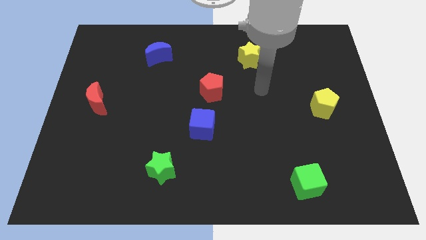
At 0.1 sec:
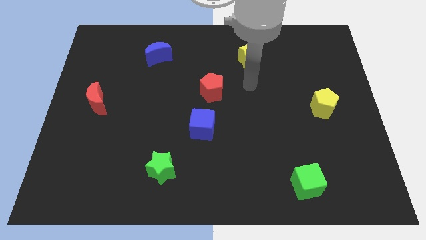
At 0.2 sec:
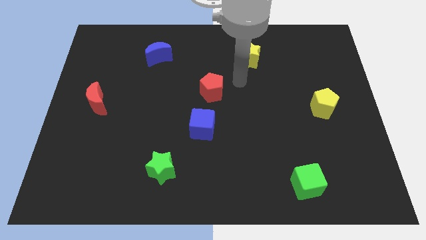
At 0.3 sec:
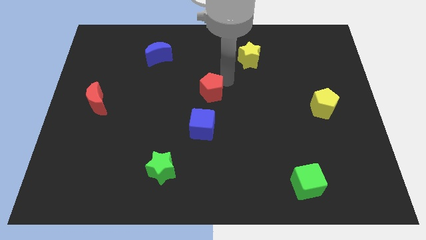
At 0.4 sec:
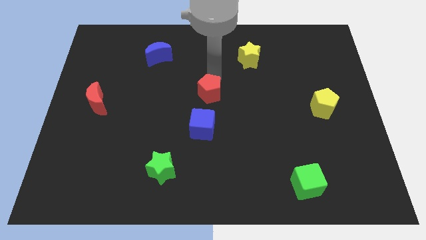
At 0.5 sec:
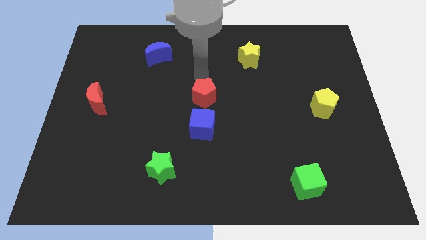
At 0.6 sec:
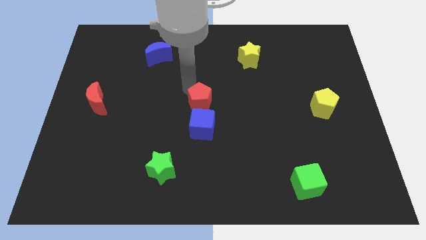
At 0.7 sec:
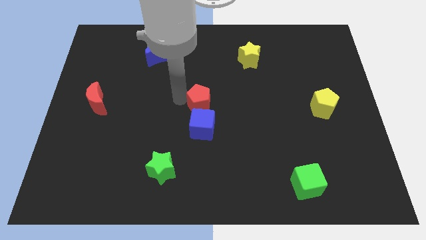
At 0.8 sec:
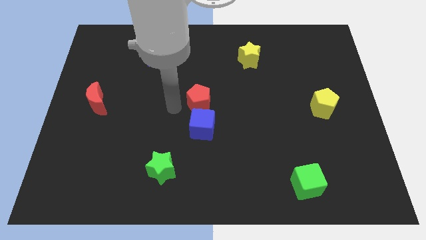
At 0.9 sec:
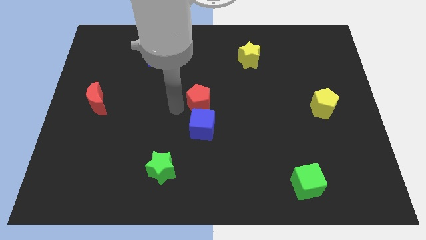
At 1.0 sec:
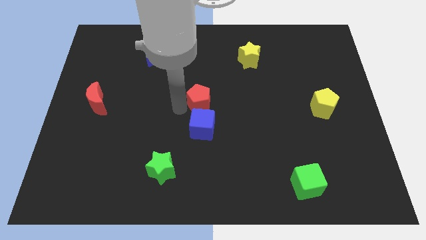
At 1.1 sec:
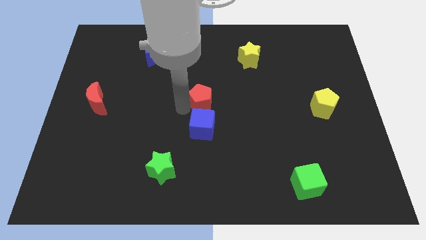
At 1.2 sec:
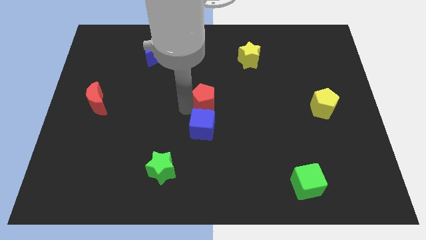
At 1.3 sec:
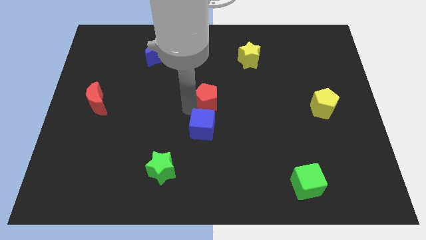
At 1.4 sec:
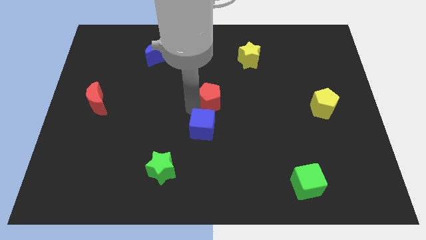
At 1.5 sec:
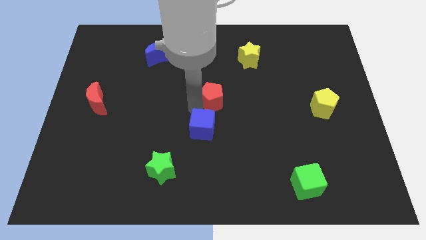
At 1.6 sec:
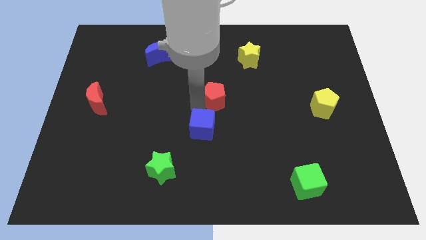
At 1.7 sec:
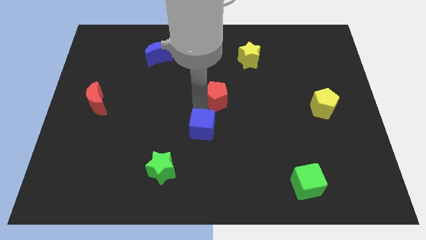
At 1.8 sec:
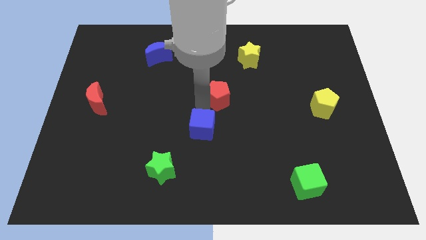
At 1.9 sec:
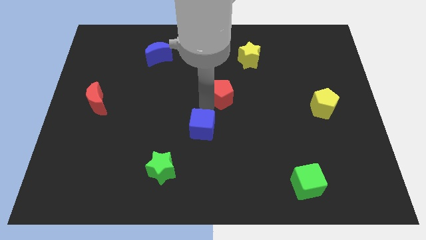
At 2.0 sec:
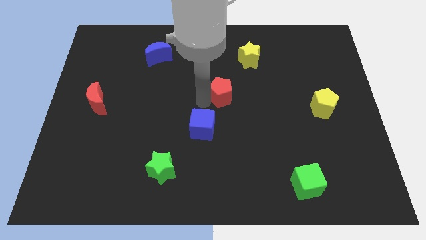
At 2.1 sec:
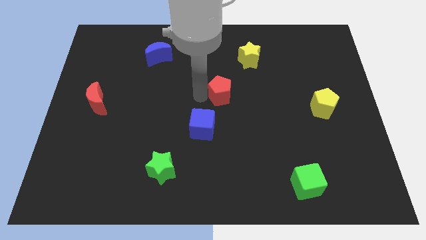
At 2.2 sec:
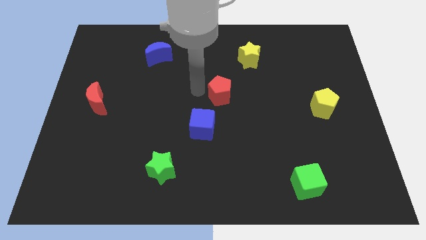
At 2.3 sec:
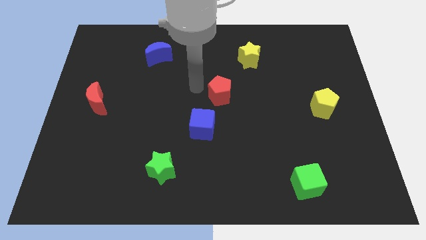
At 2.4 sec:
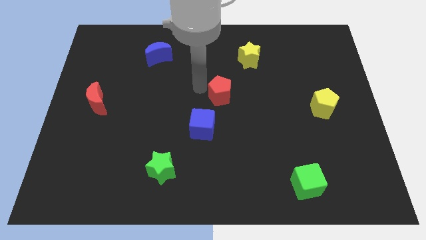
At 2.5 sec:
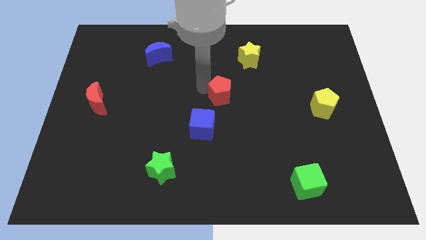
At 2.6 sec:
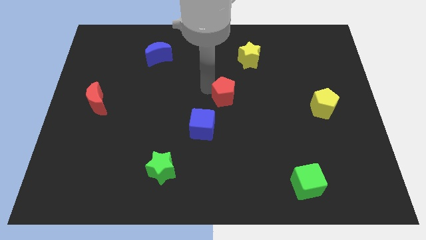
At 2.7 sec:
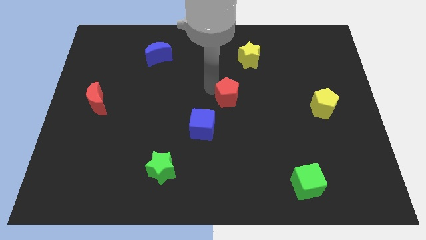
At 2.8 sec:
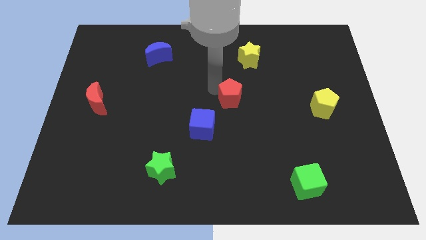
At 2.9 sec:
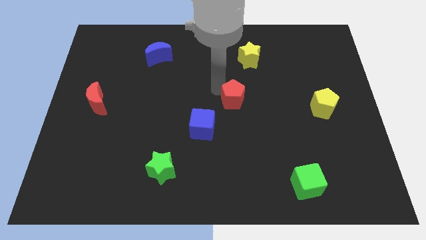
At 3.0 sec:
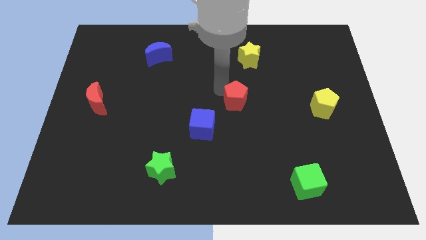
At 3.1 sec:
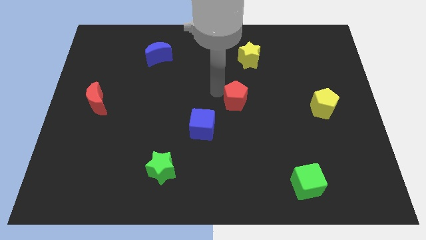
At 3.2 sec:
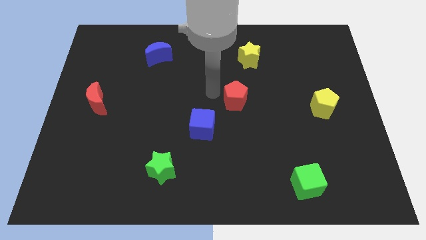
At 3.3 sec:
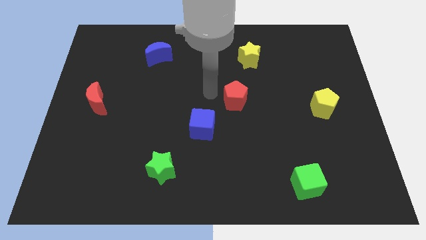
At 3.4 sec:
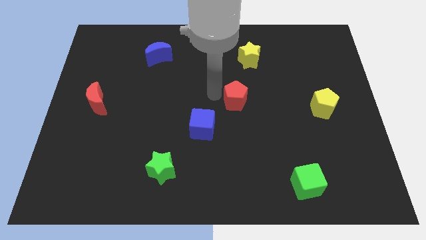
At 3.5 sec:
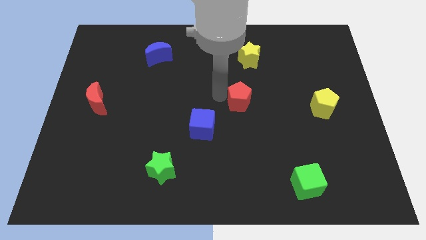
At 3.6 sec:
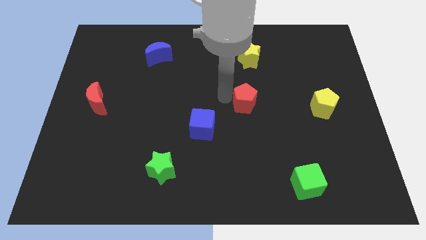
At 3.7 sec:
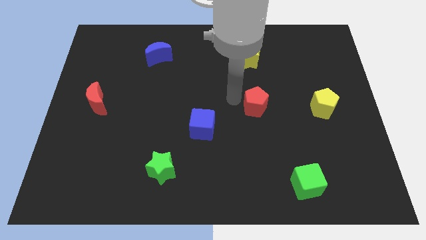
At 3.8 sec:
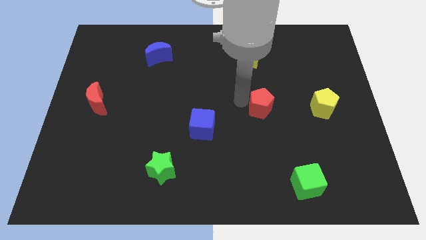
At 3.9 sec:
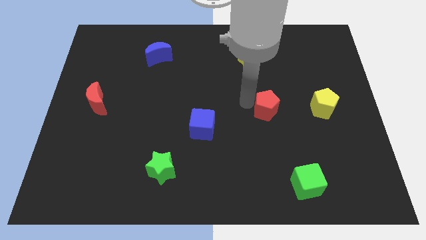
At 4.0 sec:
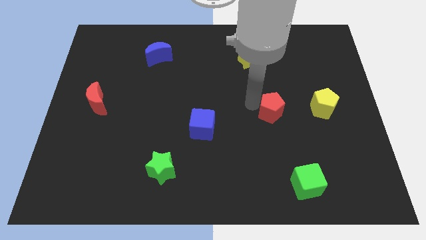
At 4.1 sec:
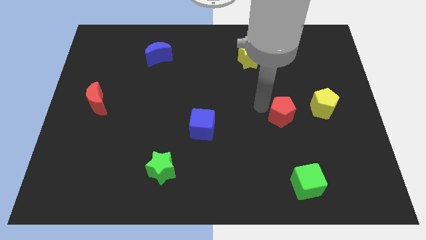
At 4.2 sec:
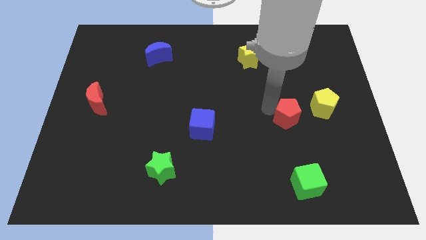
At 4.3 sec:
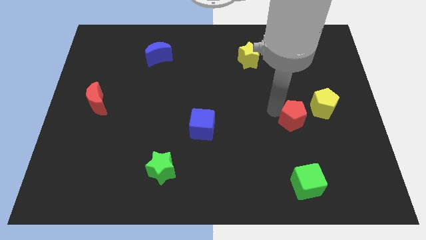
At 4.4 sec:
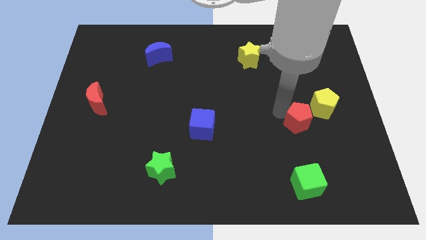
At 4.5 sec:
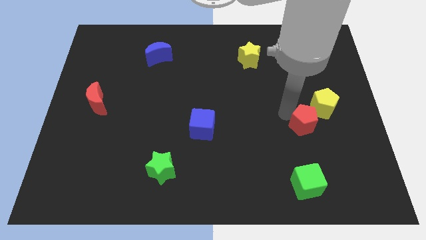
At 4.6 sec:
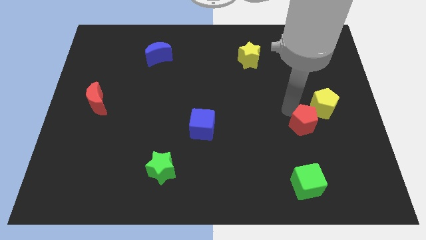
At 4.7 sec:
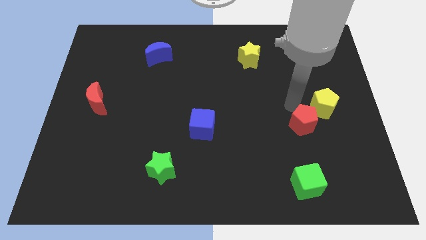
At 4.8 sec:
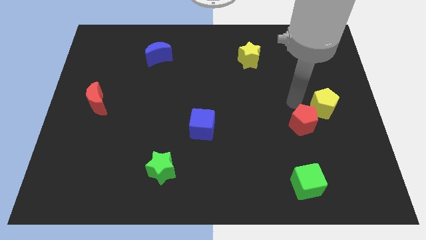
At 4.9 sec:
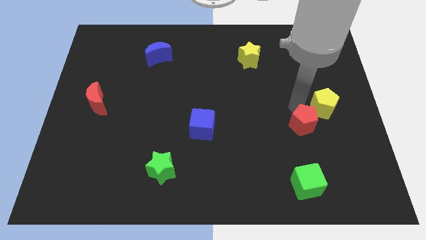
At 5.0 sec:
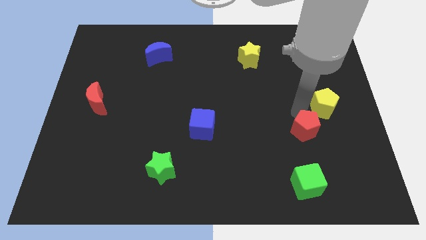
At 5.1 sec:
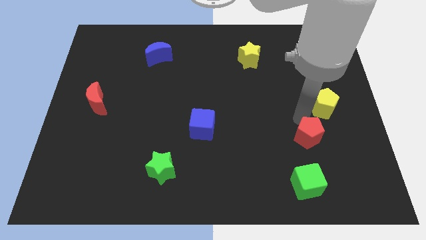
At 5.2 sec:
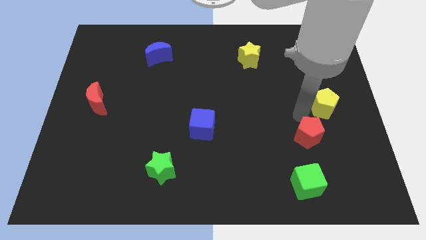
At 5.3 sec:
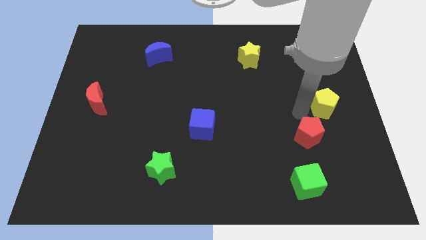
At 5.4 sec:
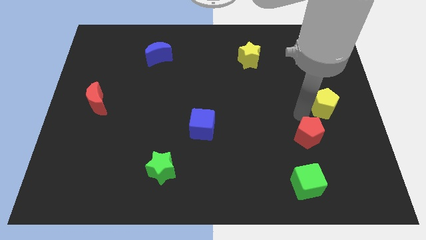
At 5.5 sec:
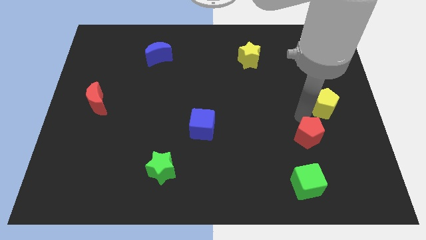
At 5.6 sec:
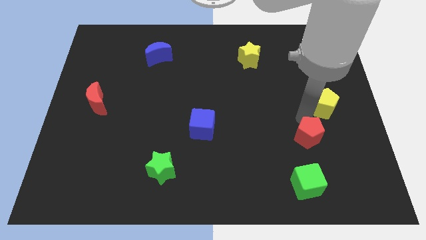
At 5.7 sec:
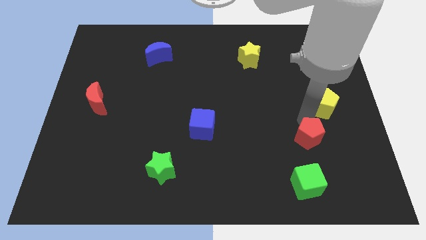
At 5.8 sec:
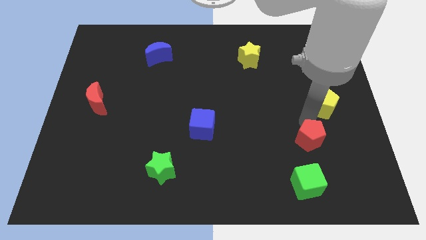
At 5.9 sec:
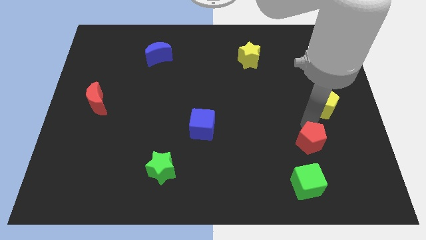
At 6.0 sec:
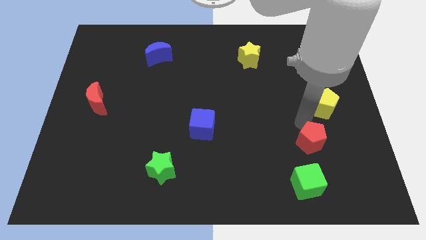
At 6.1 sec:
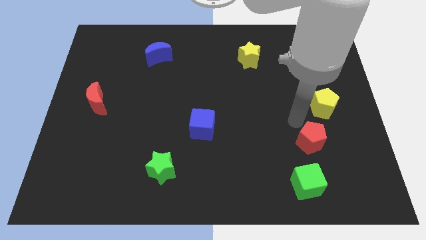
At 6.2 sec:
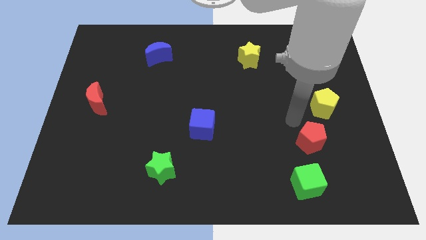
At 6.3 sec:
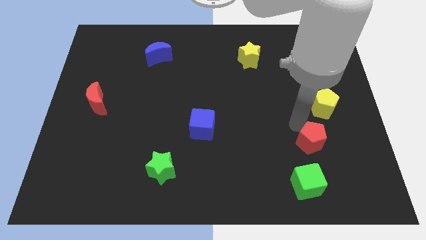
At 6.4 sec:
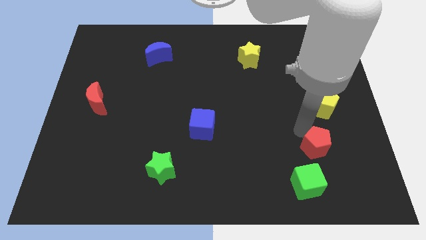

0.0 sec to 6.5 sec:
push the red pentagon to the top right of the green cube
